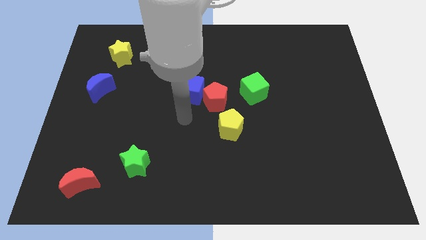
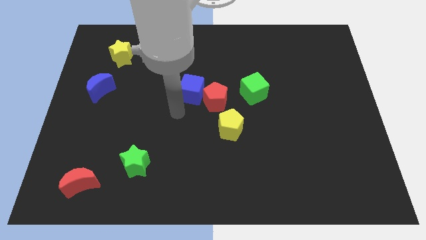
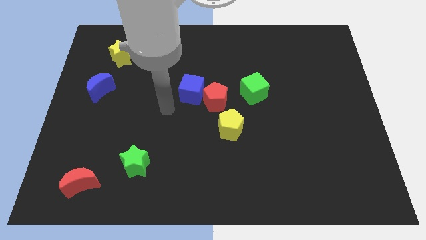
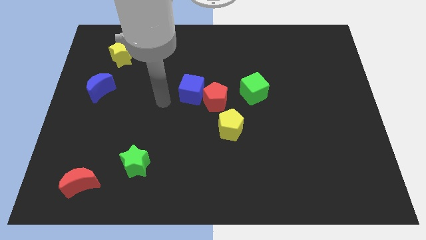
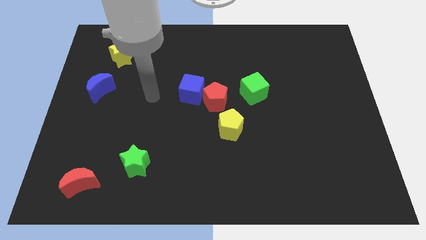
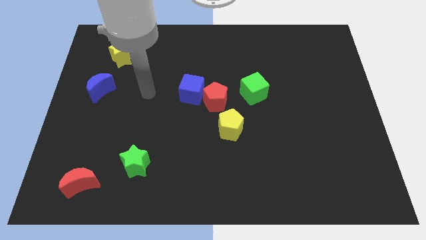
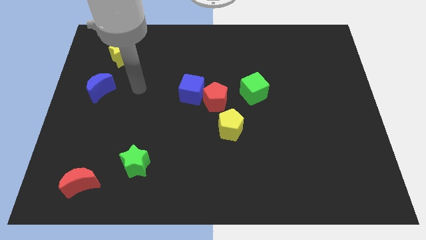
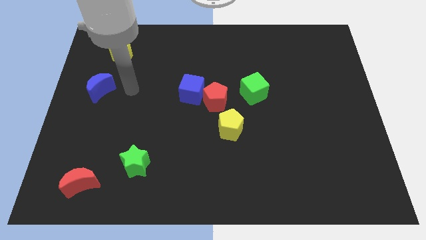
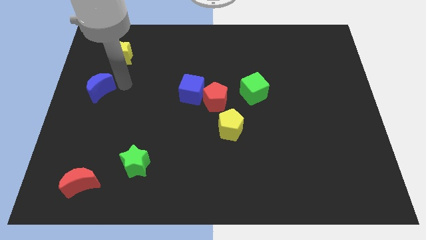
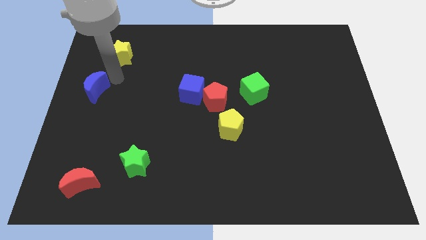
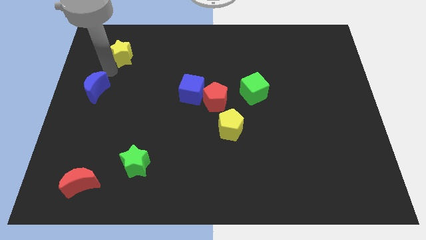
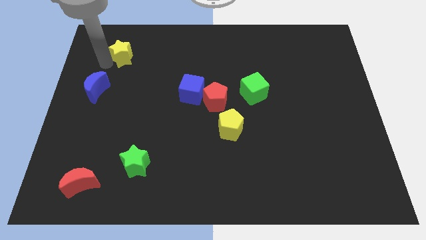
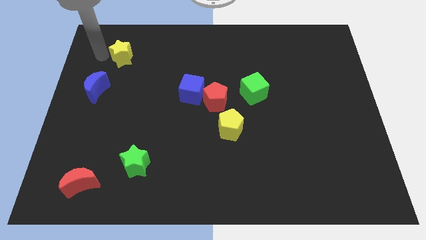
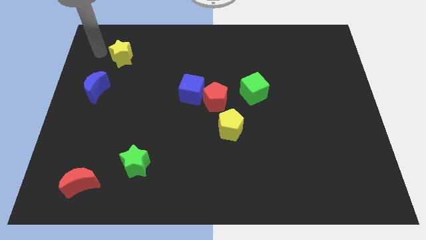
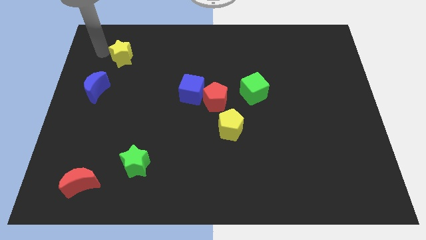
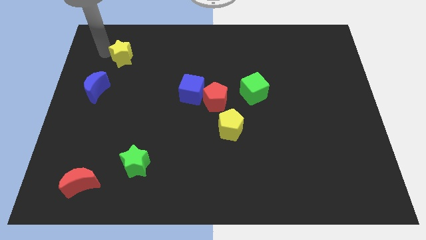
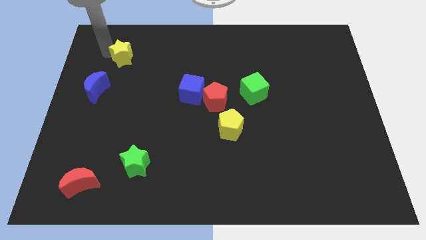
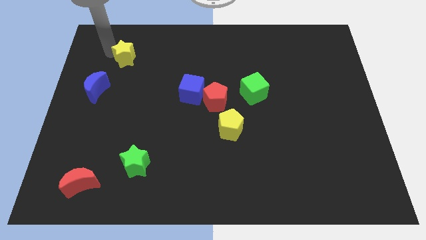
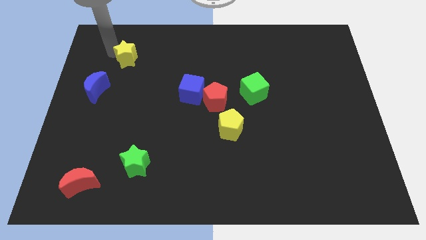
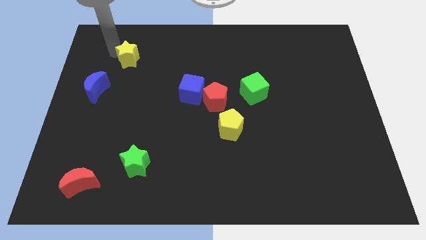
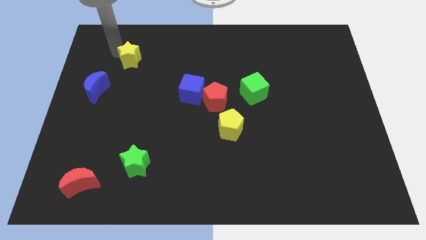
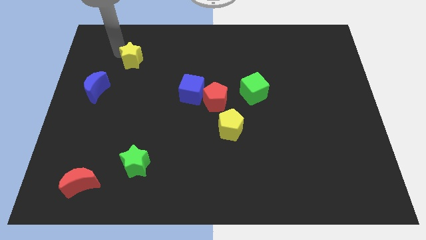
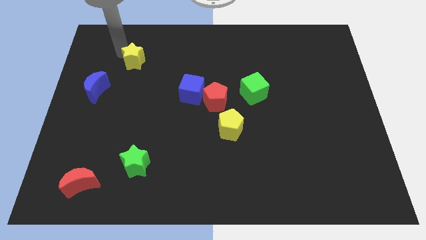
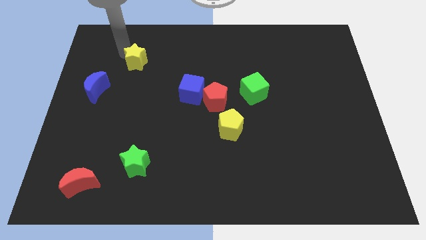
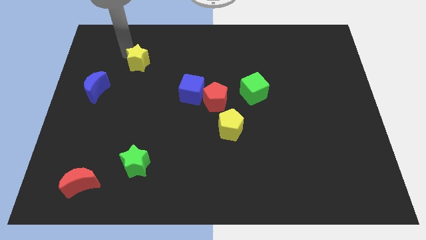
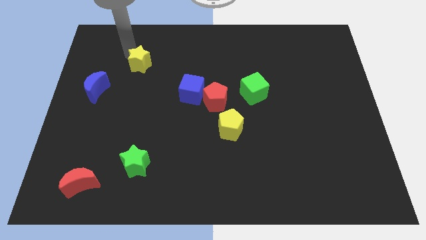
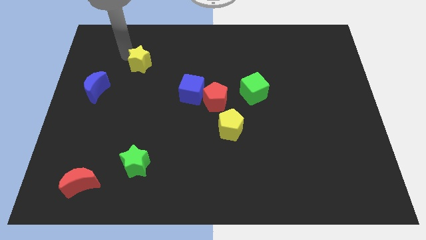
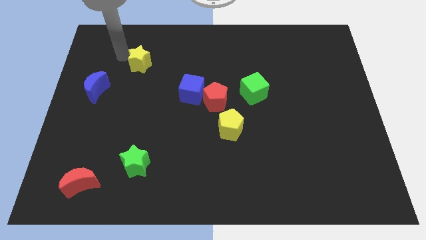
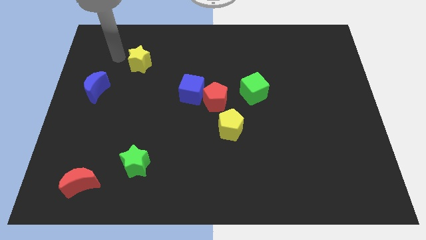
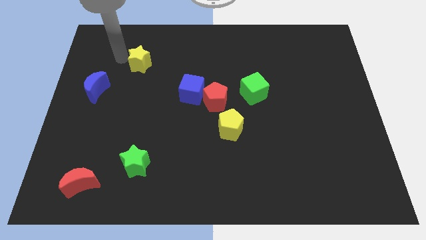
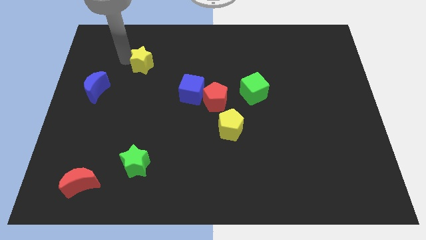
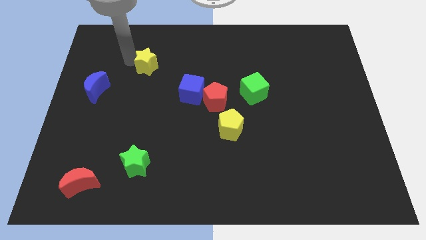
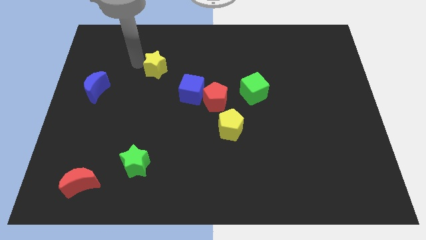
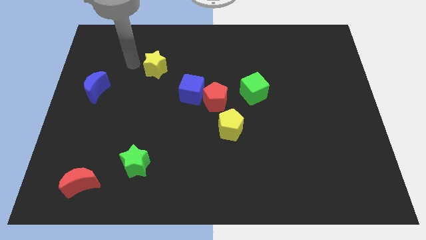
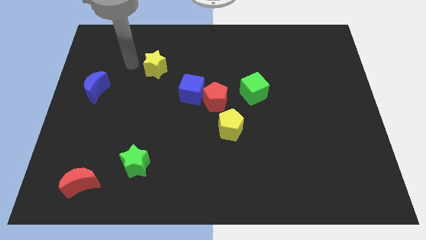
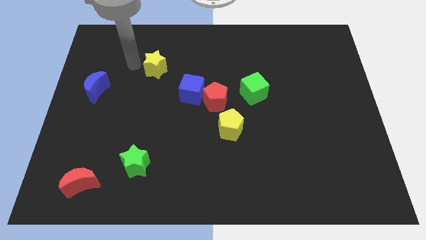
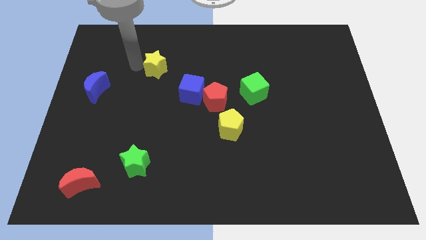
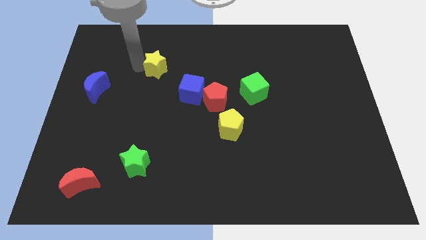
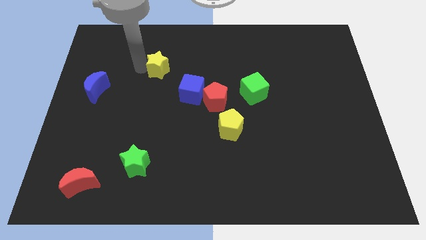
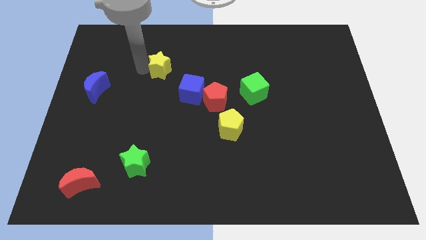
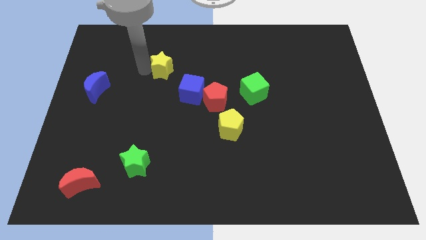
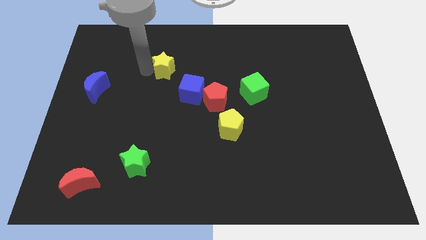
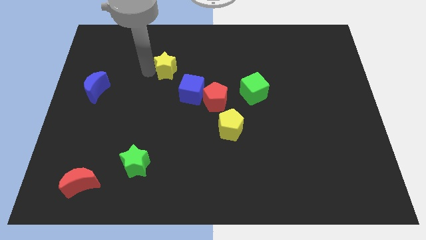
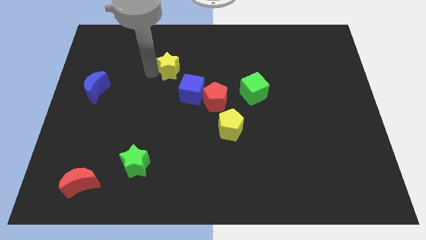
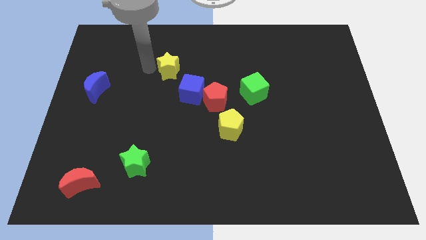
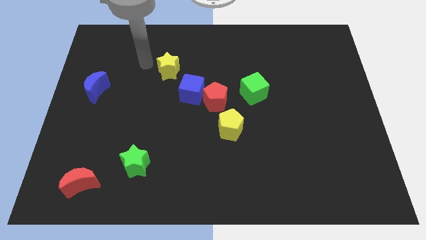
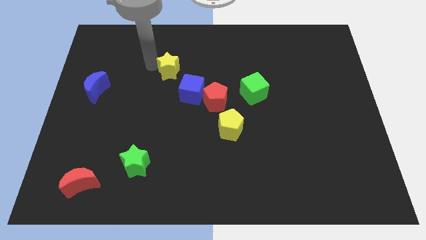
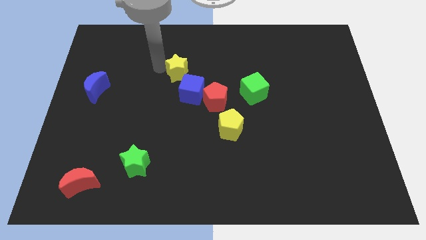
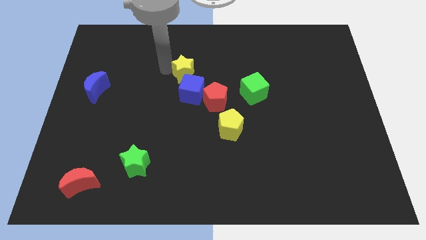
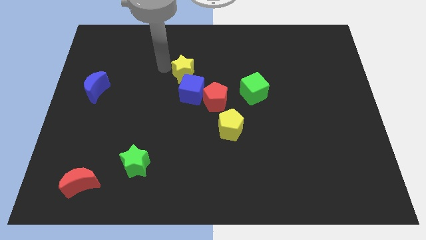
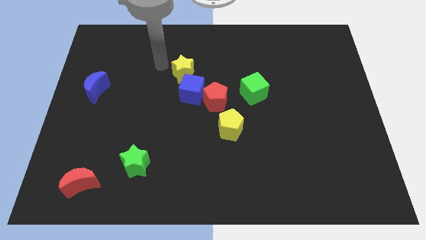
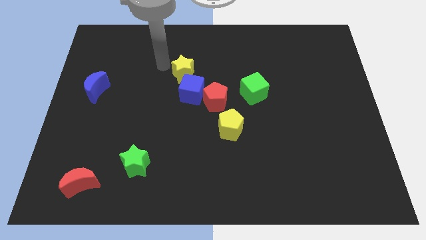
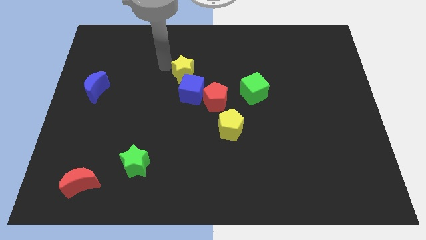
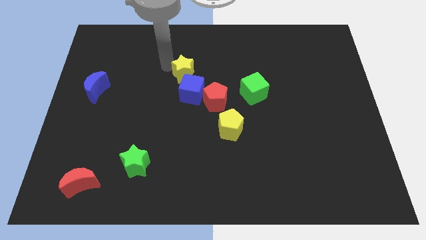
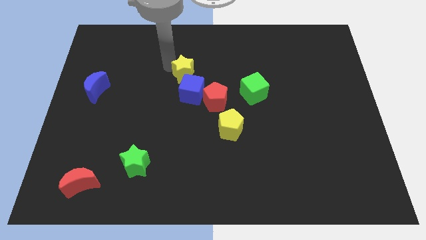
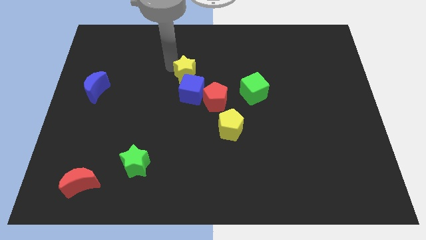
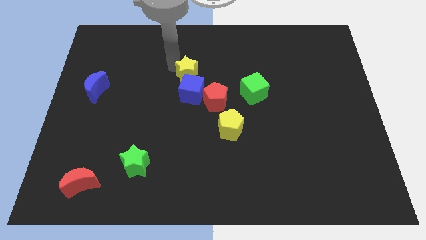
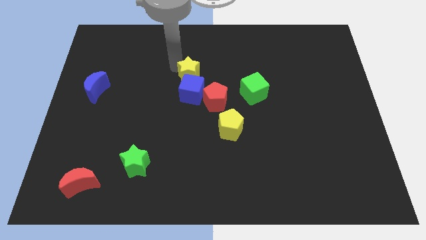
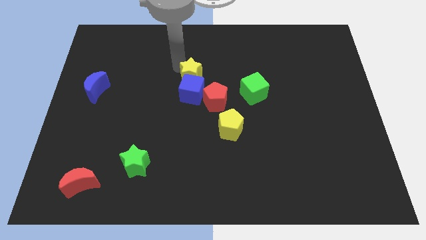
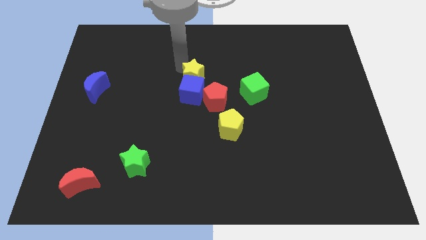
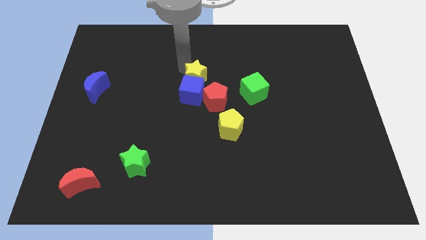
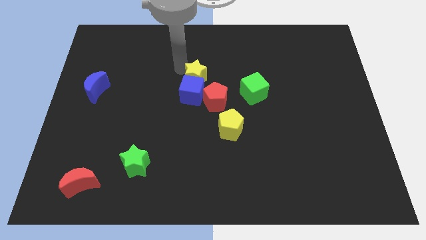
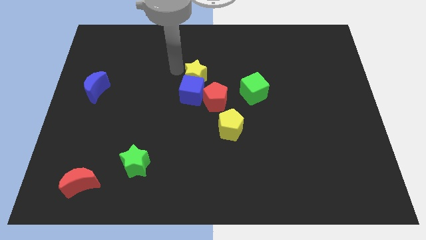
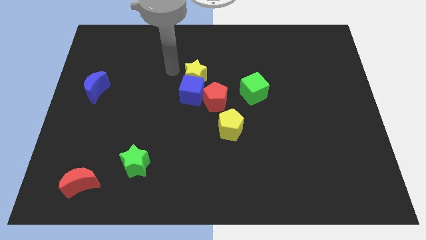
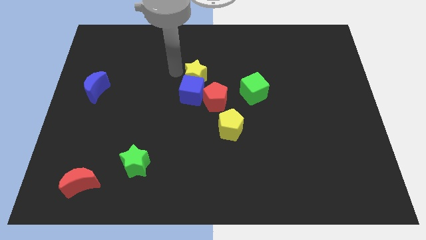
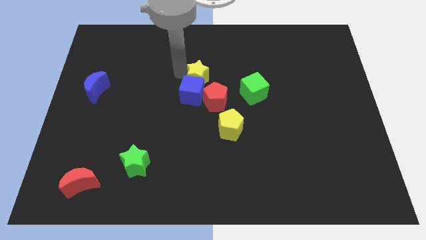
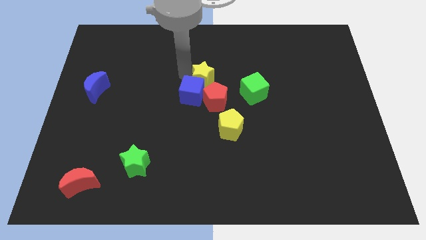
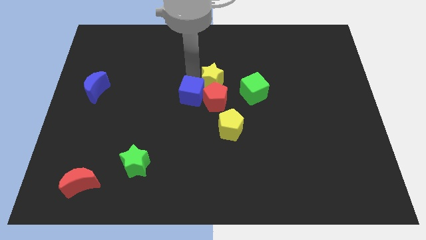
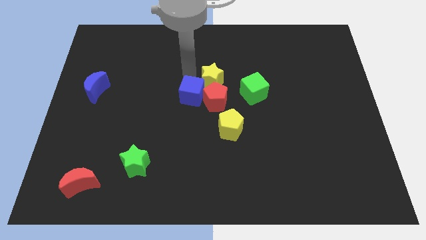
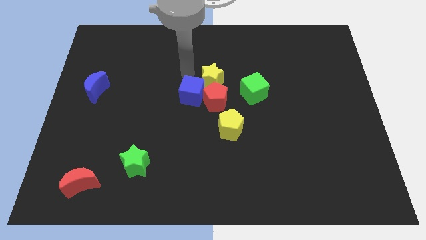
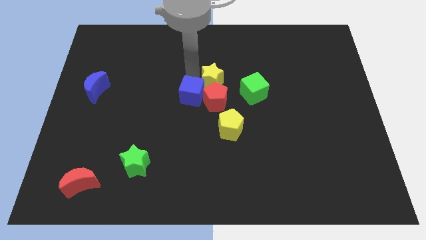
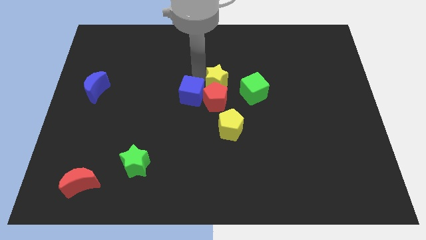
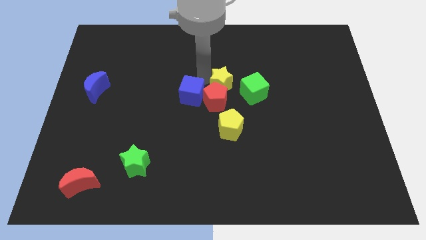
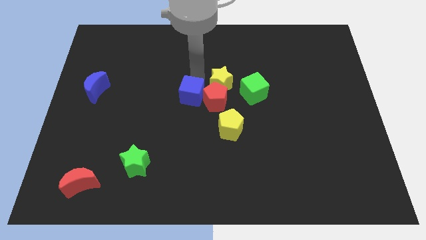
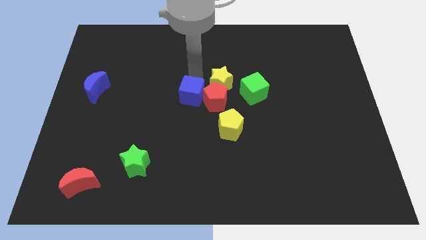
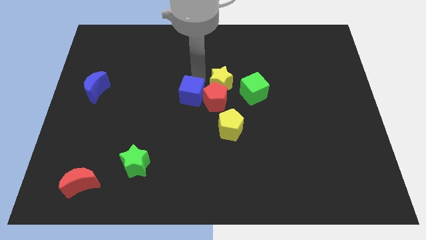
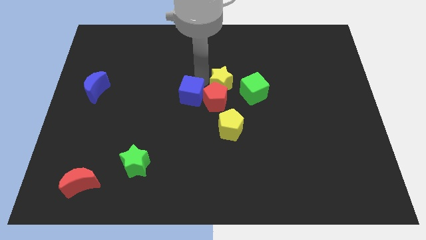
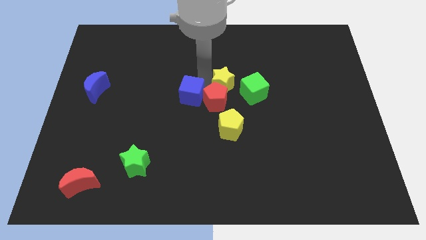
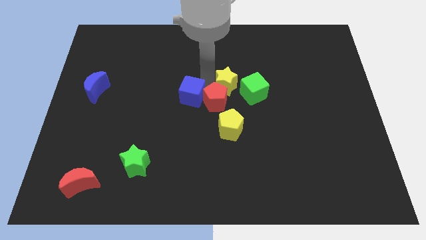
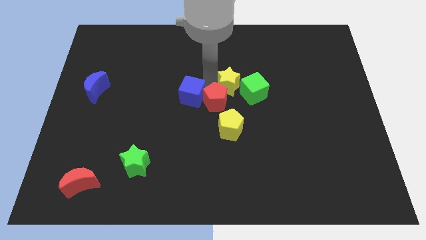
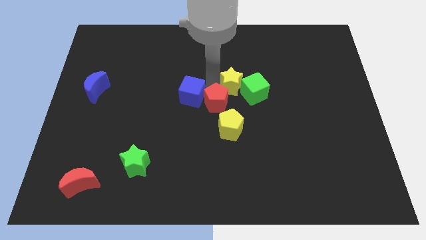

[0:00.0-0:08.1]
push the yellow star to the green cube
